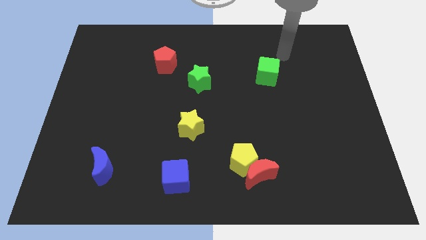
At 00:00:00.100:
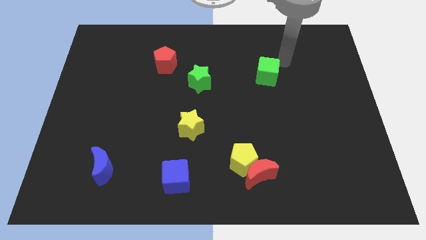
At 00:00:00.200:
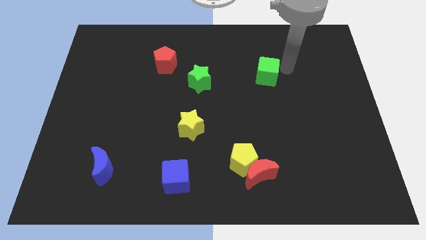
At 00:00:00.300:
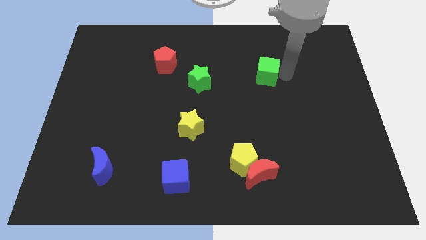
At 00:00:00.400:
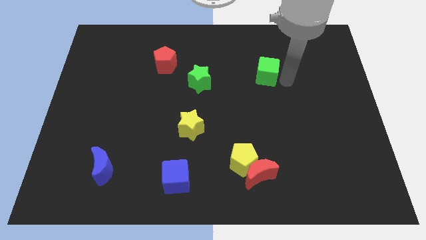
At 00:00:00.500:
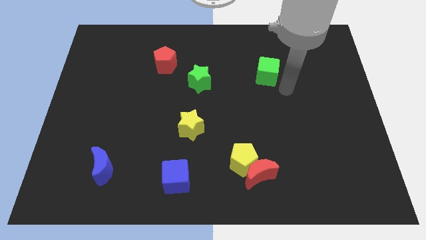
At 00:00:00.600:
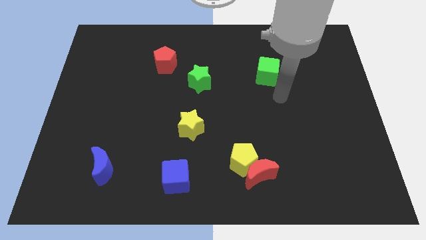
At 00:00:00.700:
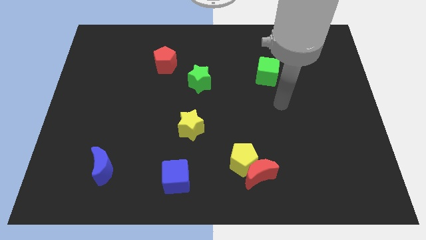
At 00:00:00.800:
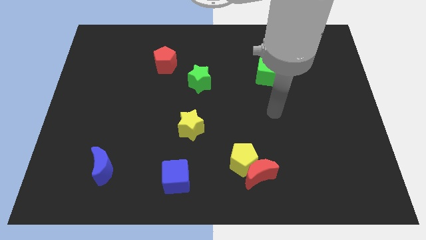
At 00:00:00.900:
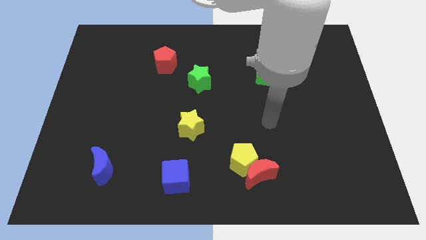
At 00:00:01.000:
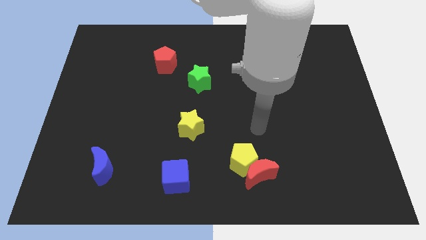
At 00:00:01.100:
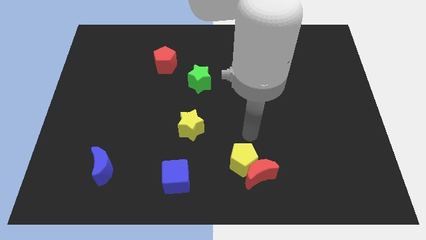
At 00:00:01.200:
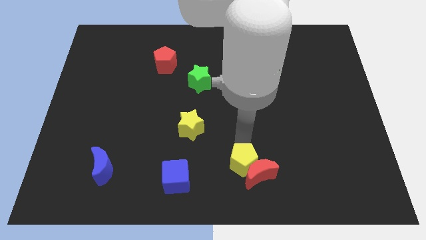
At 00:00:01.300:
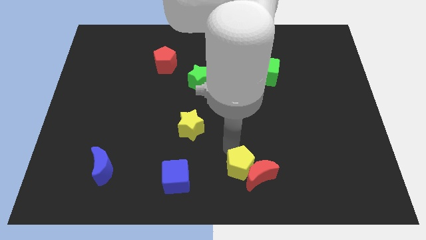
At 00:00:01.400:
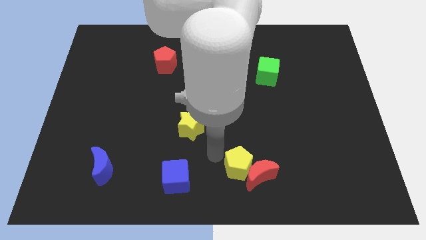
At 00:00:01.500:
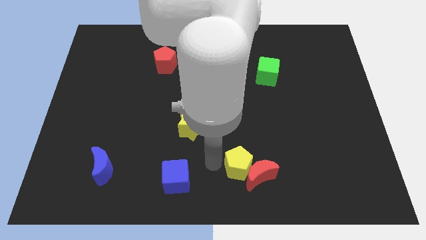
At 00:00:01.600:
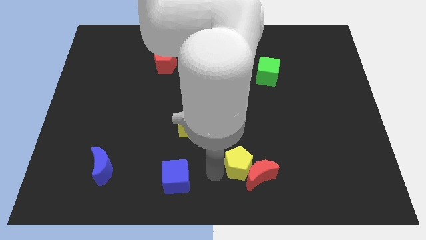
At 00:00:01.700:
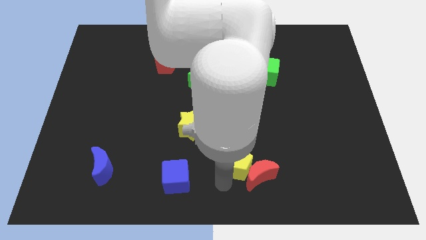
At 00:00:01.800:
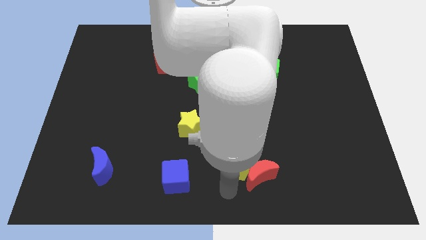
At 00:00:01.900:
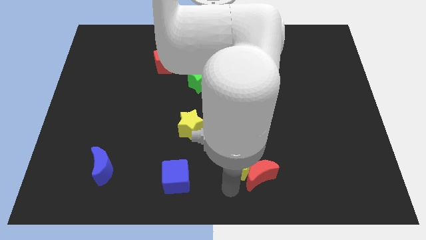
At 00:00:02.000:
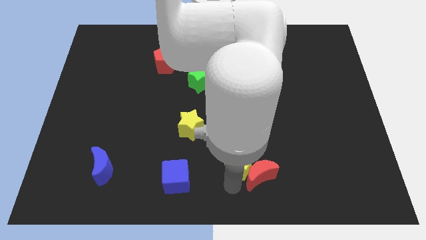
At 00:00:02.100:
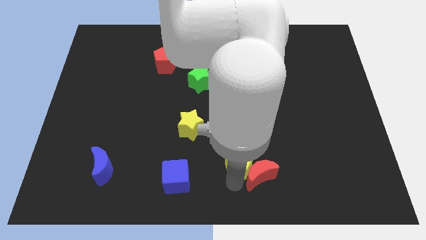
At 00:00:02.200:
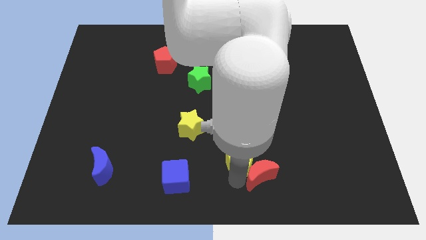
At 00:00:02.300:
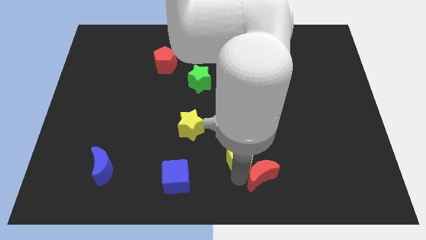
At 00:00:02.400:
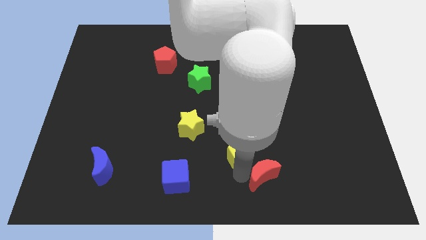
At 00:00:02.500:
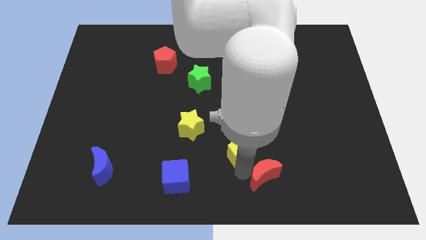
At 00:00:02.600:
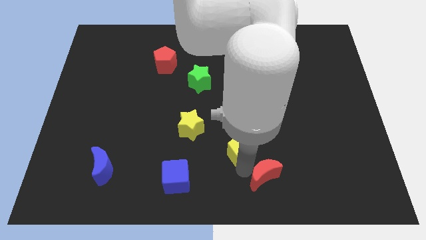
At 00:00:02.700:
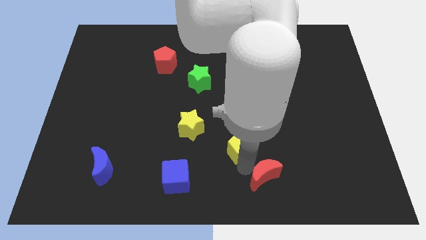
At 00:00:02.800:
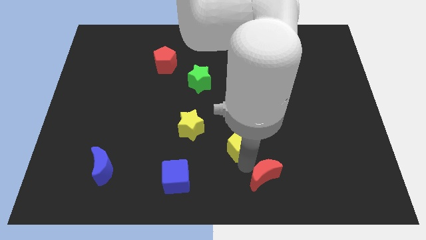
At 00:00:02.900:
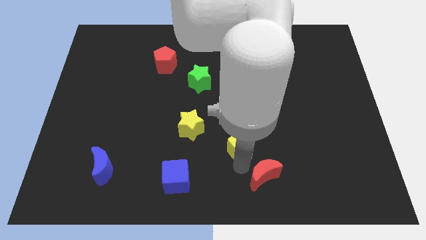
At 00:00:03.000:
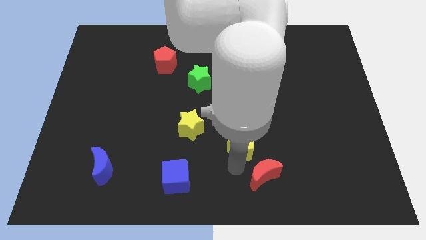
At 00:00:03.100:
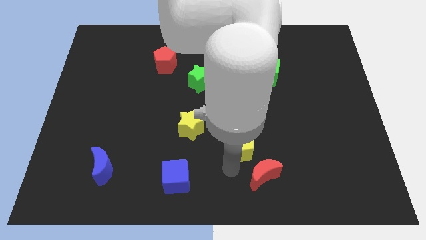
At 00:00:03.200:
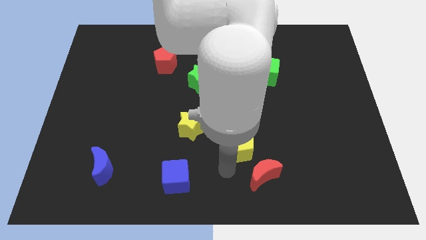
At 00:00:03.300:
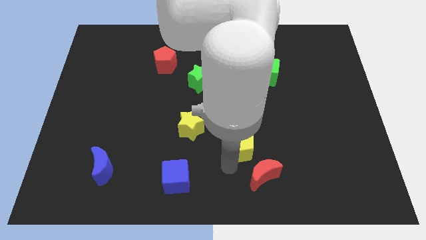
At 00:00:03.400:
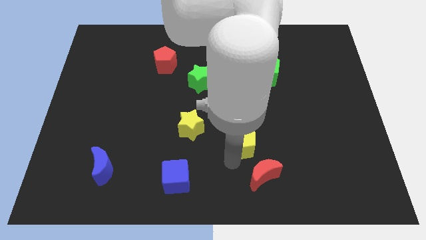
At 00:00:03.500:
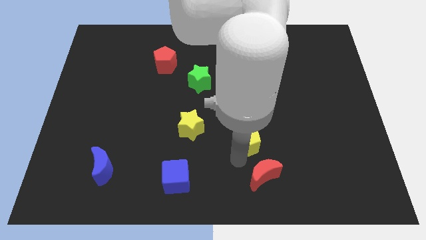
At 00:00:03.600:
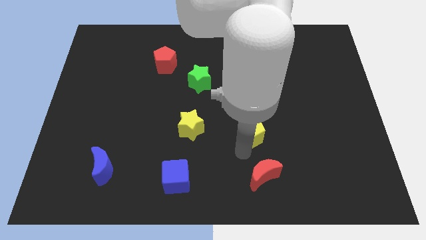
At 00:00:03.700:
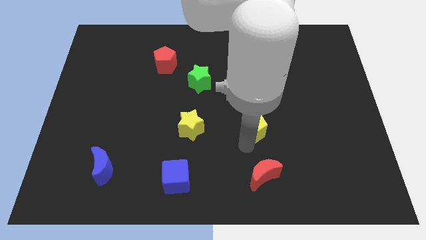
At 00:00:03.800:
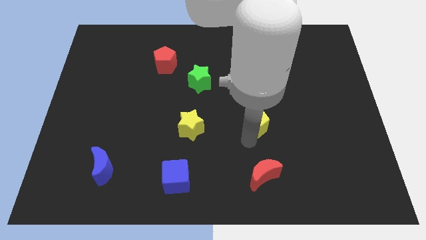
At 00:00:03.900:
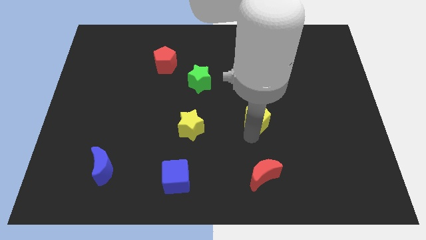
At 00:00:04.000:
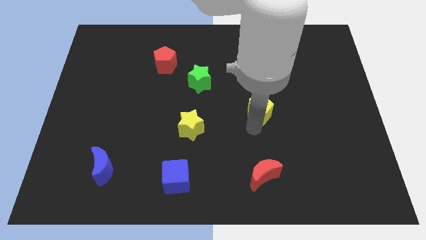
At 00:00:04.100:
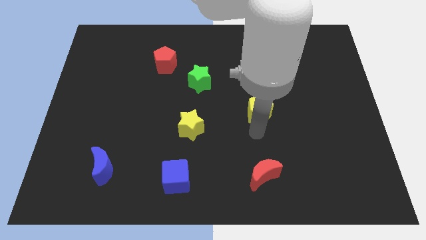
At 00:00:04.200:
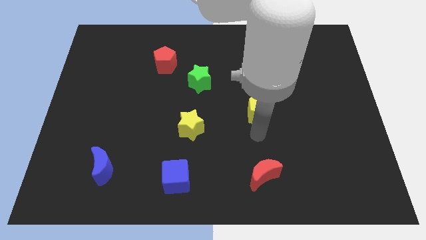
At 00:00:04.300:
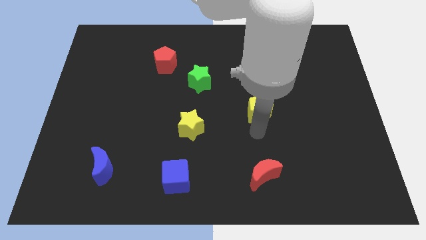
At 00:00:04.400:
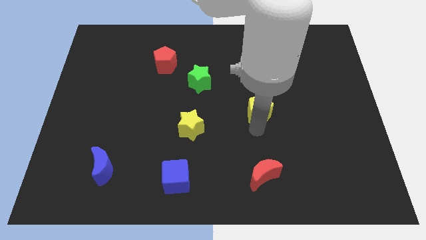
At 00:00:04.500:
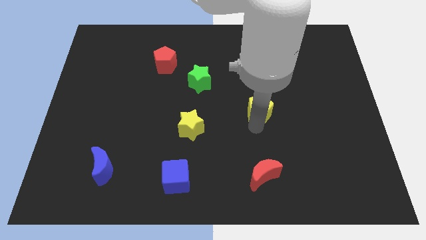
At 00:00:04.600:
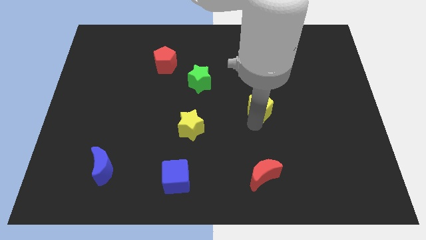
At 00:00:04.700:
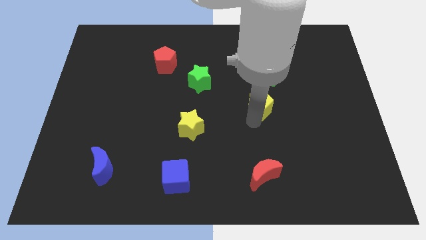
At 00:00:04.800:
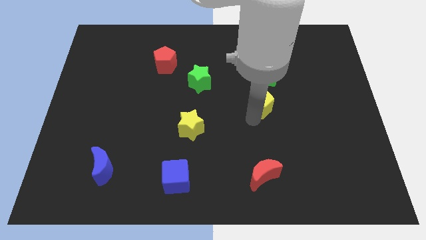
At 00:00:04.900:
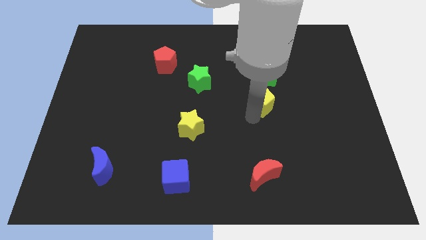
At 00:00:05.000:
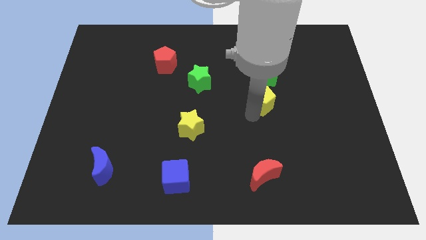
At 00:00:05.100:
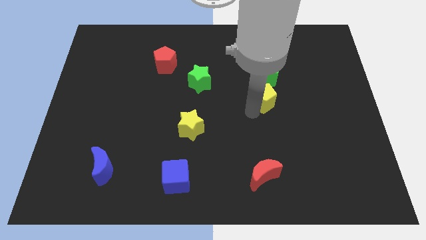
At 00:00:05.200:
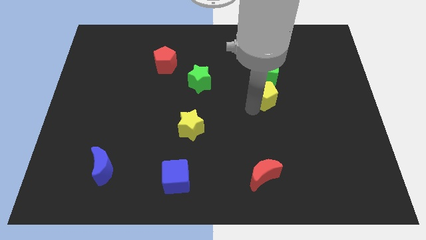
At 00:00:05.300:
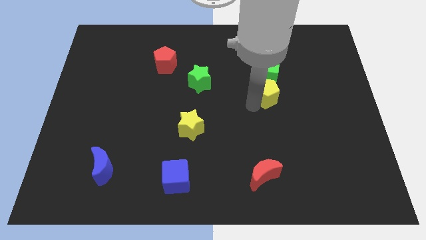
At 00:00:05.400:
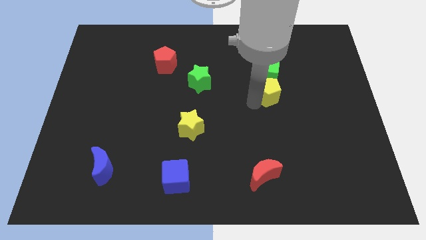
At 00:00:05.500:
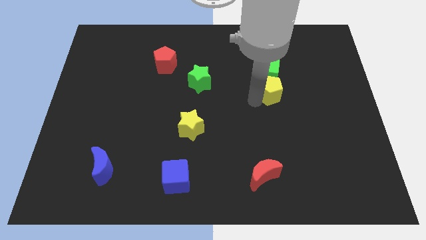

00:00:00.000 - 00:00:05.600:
put the yellow pentagon to the green cube

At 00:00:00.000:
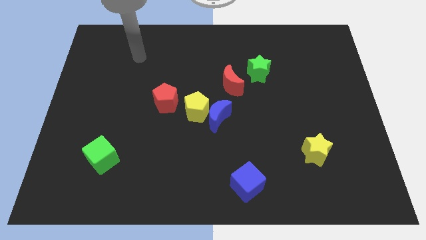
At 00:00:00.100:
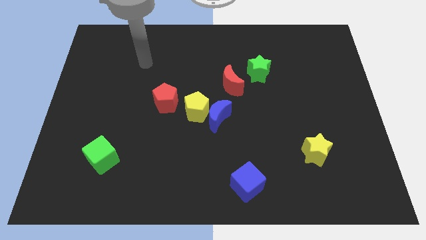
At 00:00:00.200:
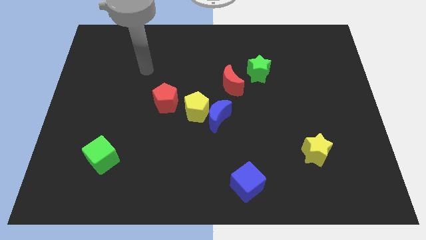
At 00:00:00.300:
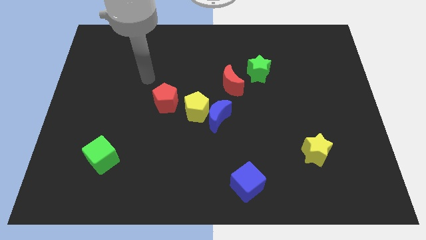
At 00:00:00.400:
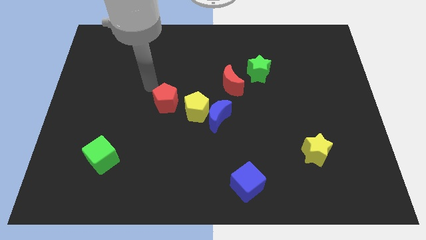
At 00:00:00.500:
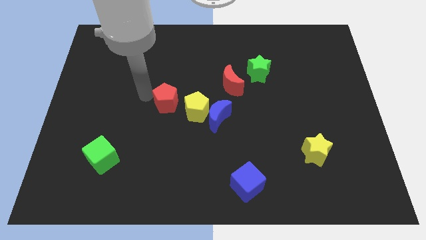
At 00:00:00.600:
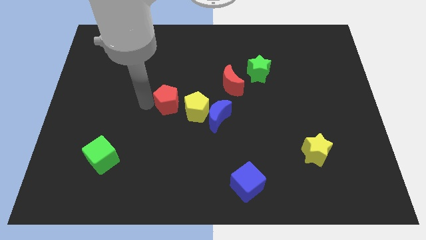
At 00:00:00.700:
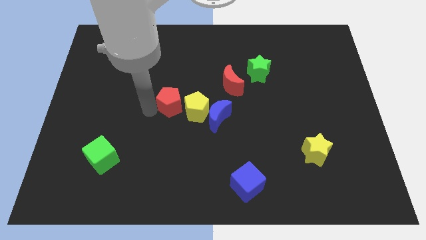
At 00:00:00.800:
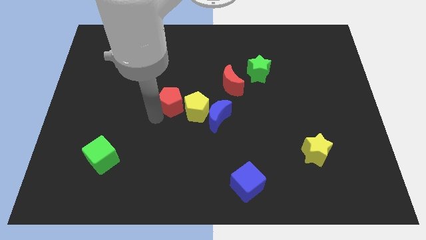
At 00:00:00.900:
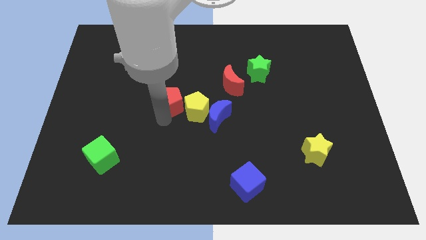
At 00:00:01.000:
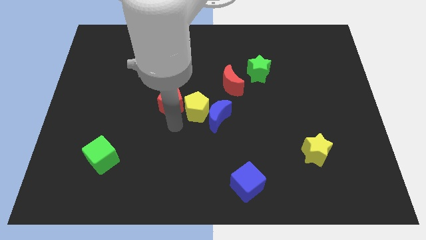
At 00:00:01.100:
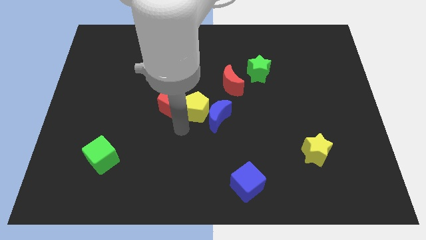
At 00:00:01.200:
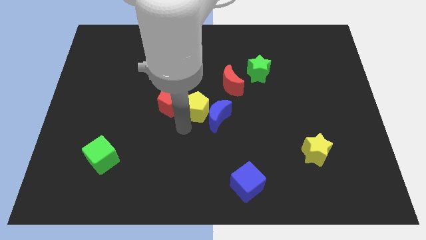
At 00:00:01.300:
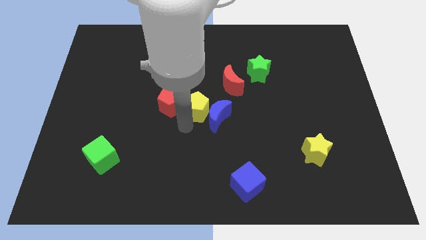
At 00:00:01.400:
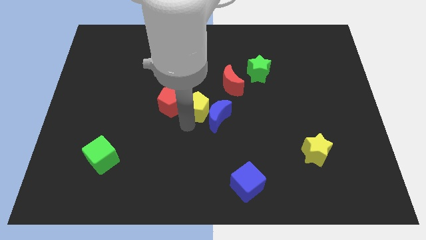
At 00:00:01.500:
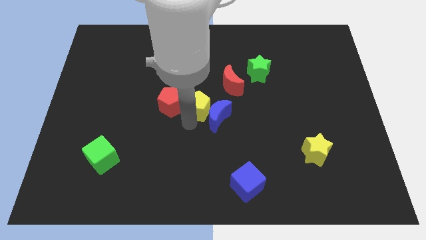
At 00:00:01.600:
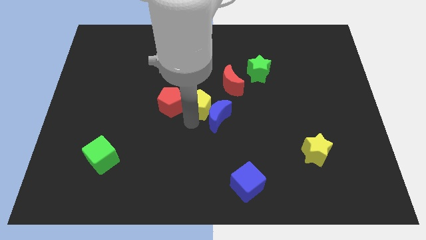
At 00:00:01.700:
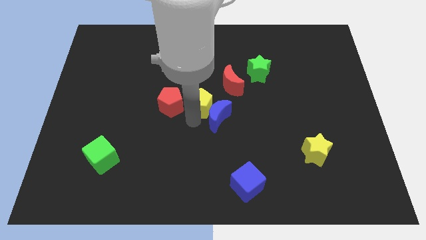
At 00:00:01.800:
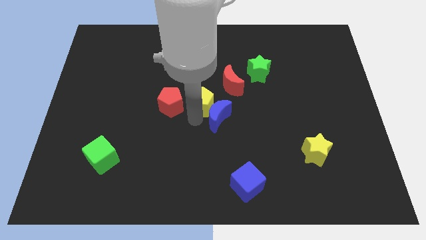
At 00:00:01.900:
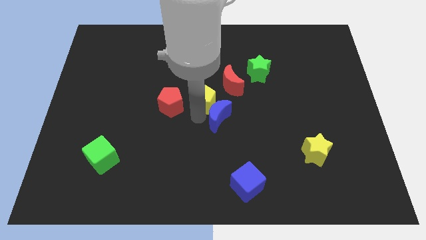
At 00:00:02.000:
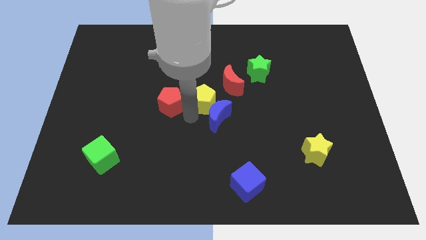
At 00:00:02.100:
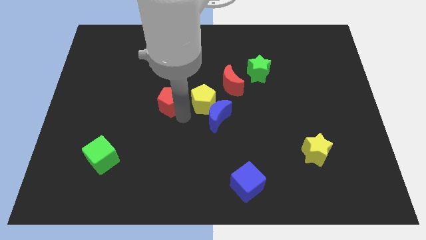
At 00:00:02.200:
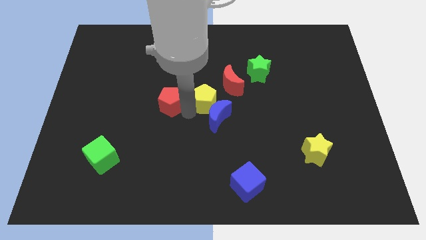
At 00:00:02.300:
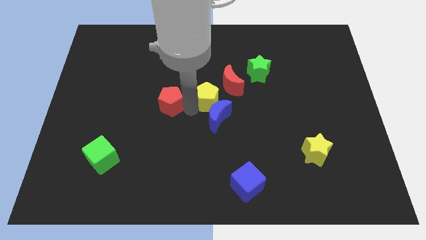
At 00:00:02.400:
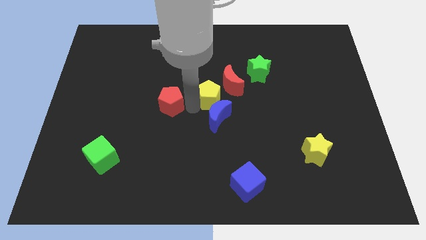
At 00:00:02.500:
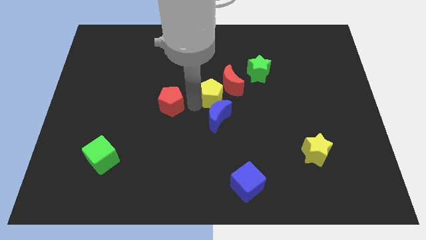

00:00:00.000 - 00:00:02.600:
move the yellow pentagon towards the red moon
